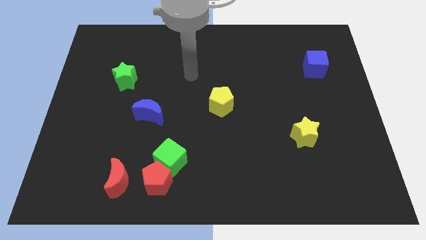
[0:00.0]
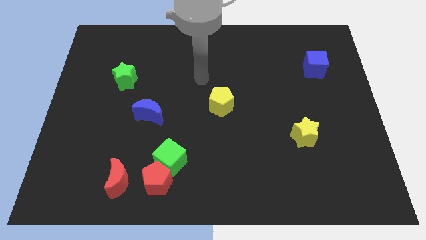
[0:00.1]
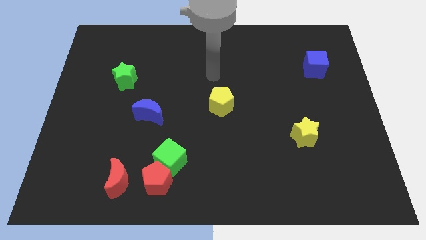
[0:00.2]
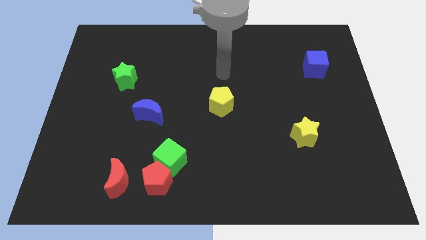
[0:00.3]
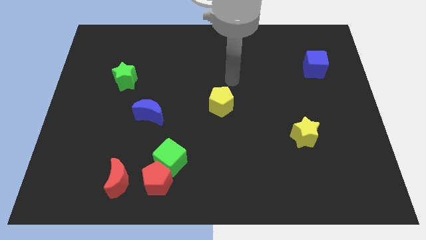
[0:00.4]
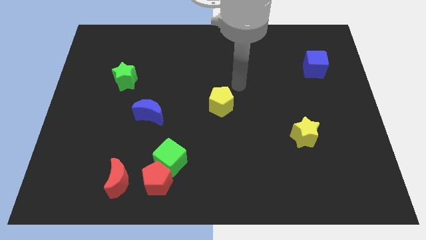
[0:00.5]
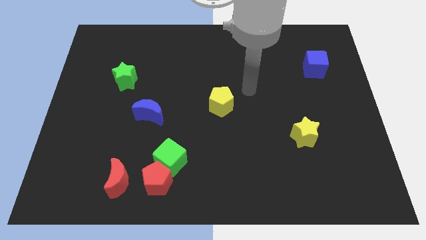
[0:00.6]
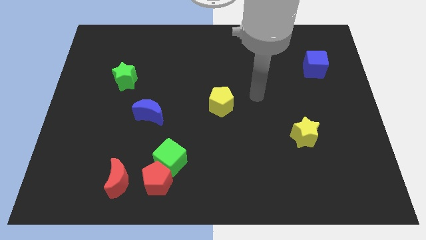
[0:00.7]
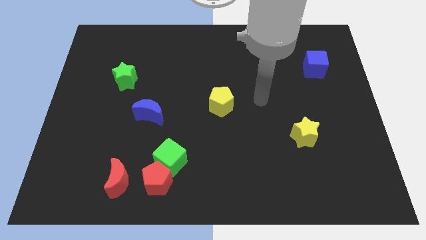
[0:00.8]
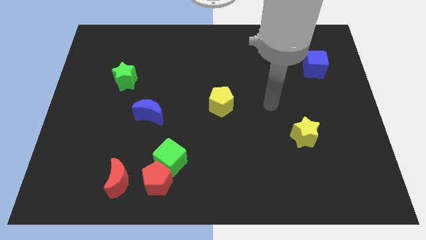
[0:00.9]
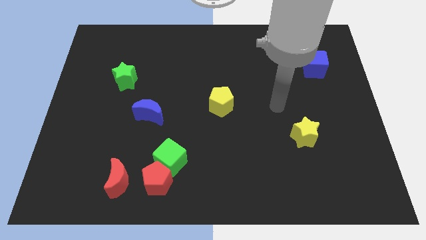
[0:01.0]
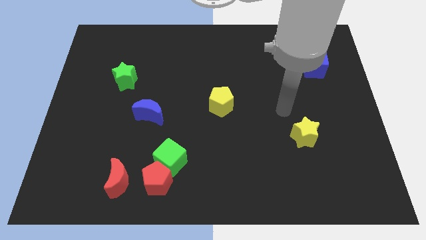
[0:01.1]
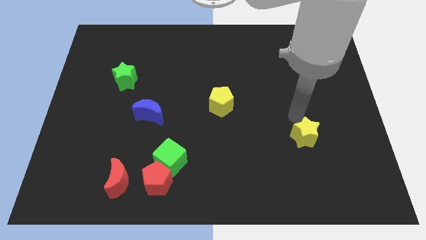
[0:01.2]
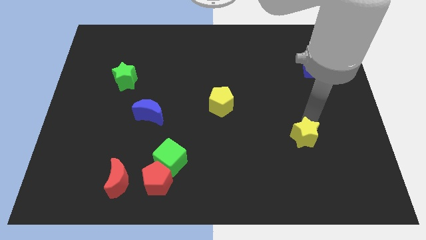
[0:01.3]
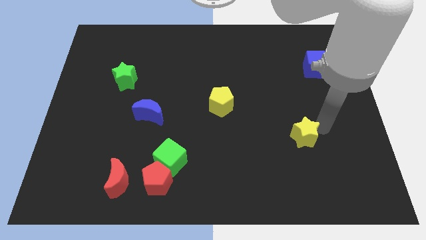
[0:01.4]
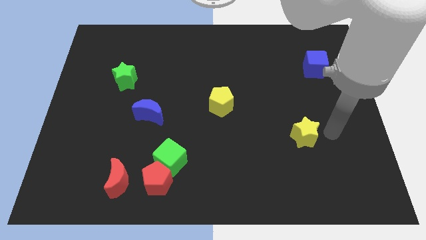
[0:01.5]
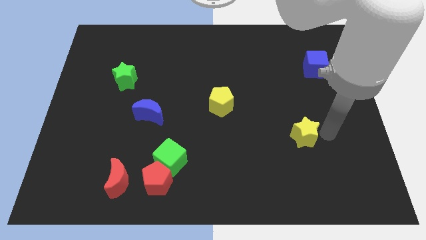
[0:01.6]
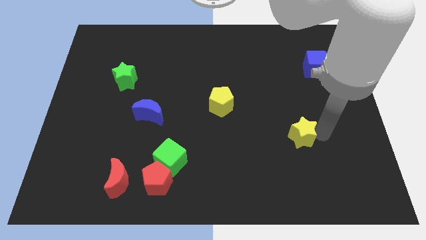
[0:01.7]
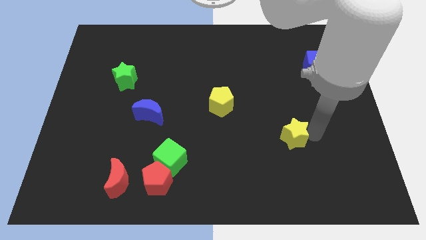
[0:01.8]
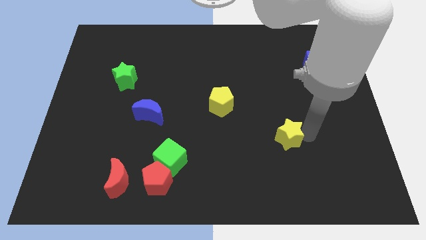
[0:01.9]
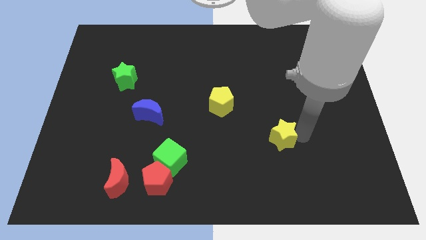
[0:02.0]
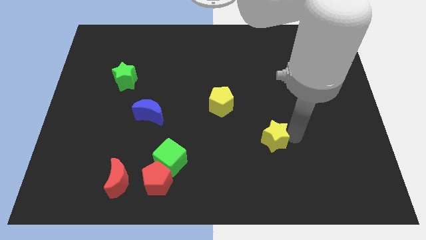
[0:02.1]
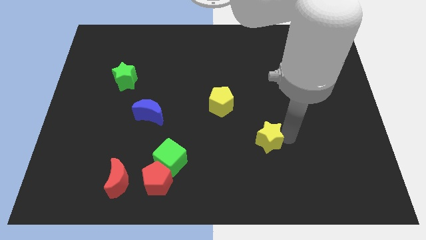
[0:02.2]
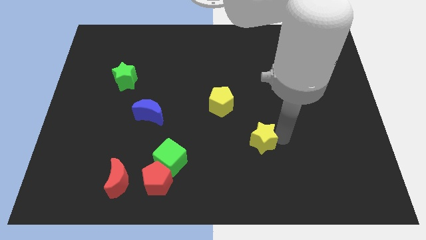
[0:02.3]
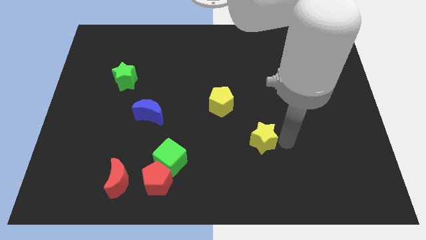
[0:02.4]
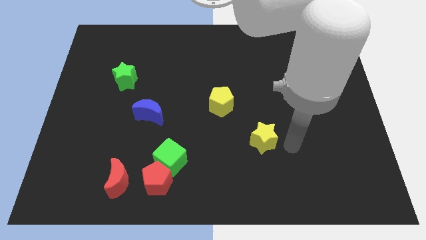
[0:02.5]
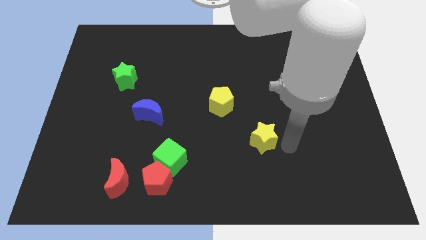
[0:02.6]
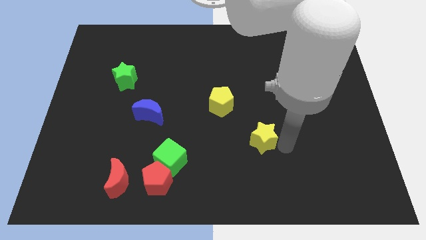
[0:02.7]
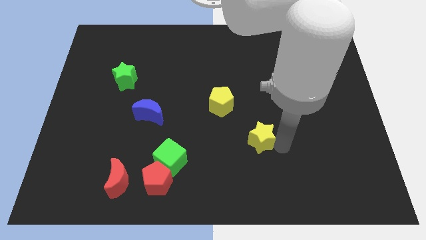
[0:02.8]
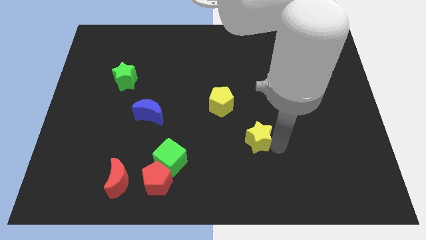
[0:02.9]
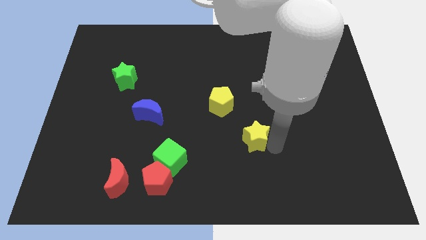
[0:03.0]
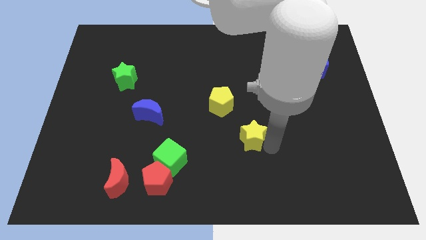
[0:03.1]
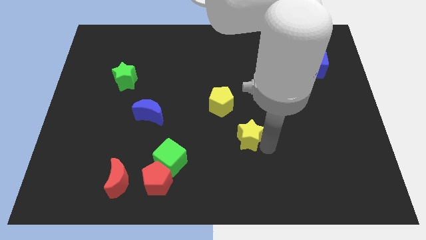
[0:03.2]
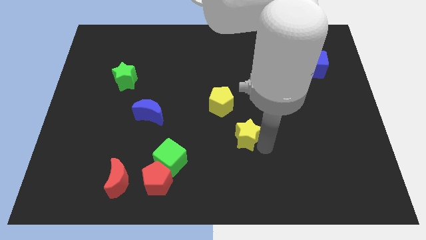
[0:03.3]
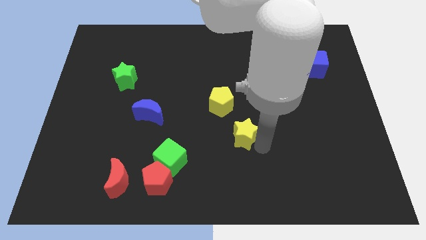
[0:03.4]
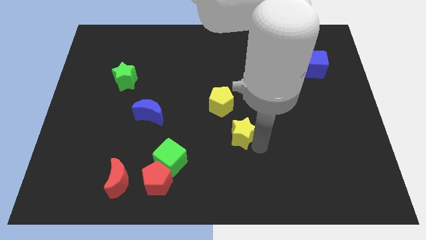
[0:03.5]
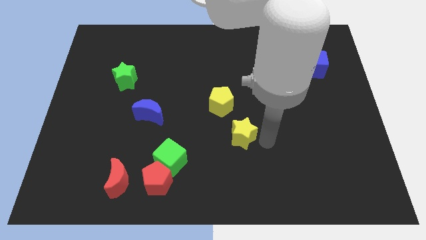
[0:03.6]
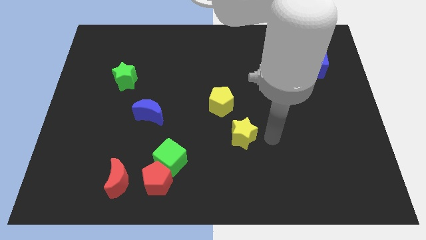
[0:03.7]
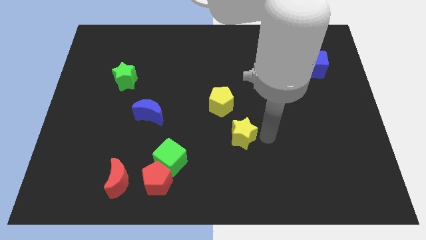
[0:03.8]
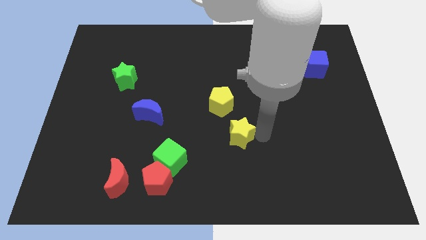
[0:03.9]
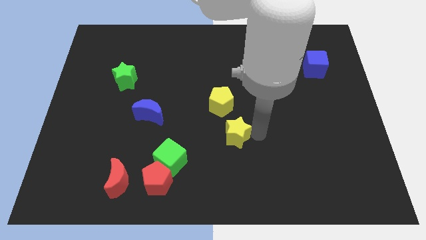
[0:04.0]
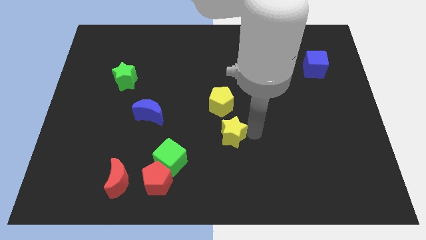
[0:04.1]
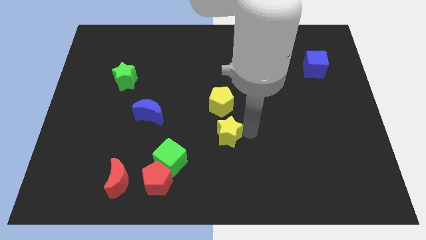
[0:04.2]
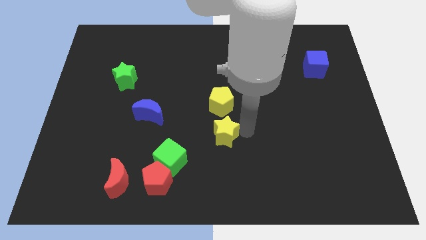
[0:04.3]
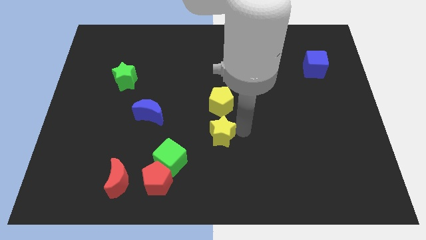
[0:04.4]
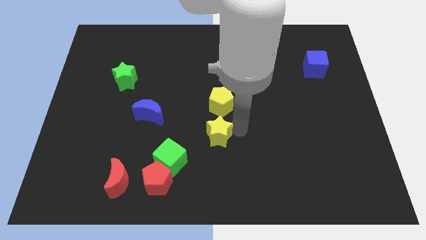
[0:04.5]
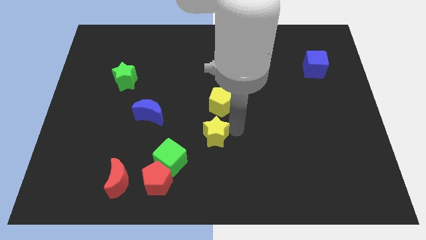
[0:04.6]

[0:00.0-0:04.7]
push the yellow star left

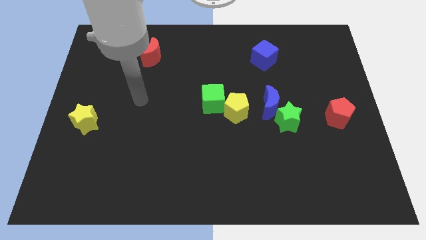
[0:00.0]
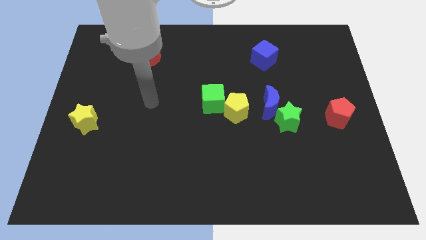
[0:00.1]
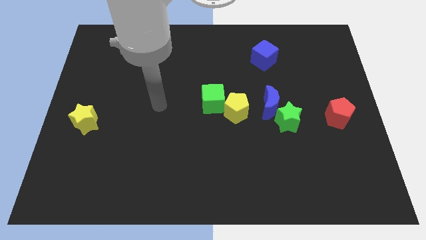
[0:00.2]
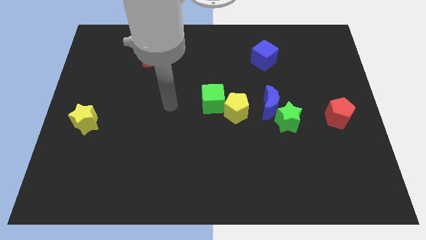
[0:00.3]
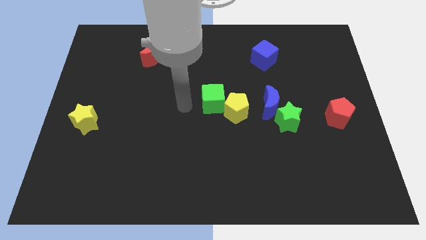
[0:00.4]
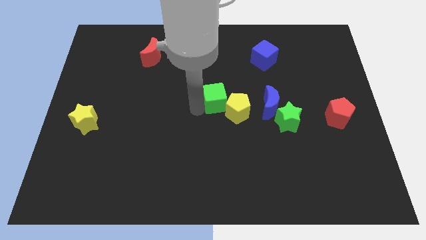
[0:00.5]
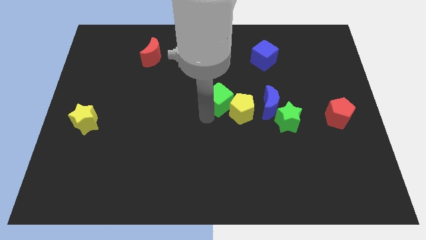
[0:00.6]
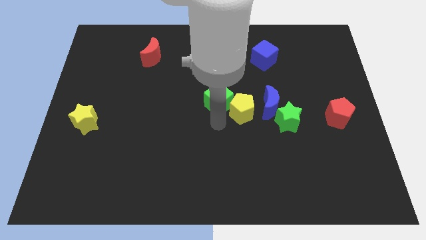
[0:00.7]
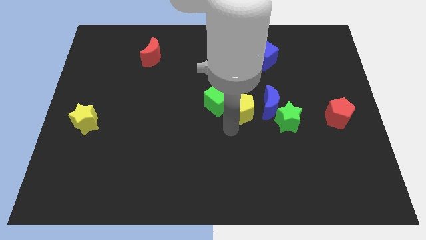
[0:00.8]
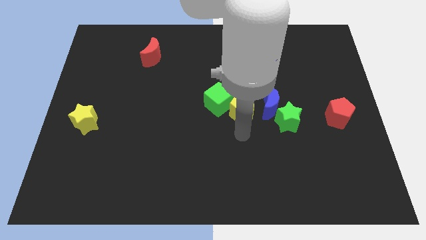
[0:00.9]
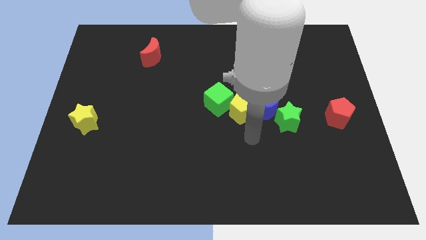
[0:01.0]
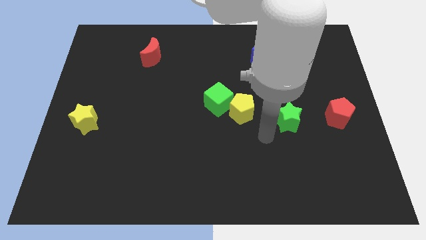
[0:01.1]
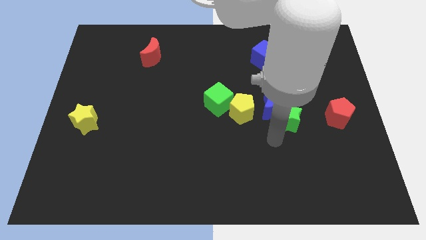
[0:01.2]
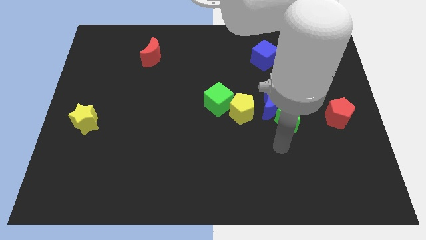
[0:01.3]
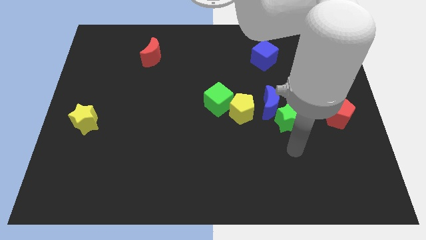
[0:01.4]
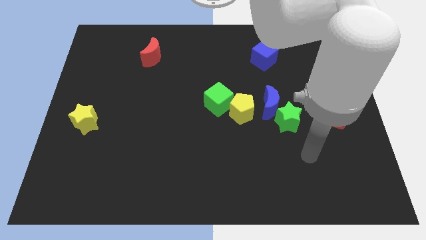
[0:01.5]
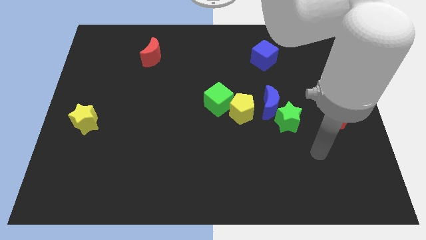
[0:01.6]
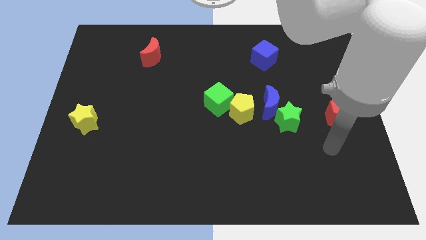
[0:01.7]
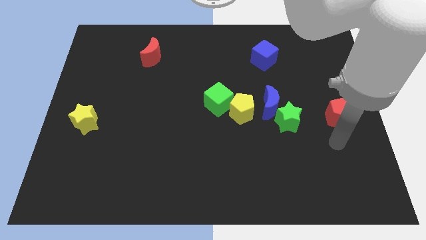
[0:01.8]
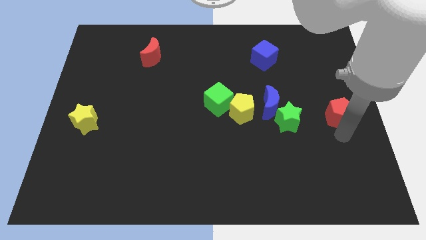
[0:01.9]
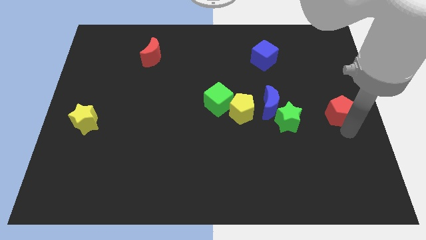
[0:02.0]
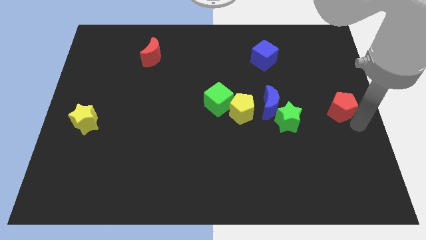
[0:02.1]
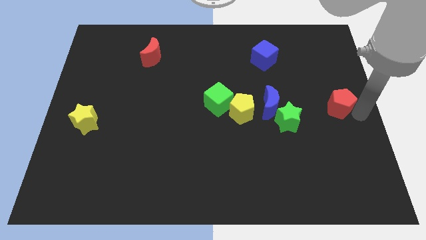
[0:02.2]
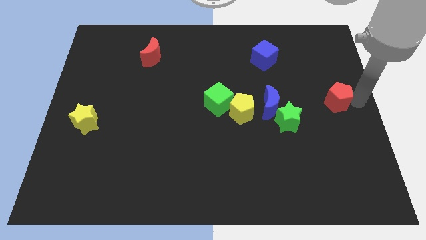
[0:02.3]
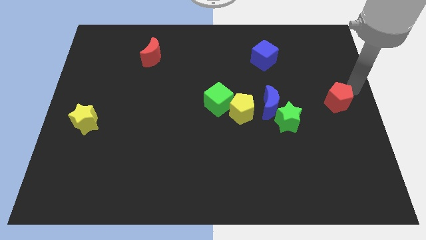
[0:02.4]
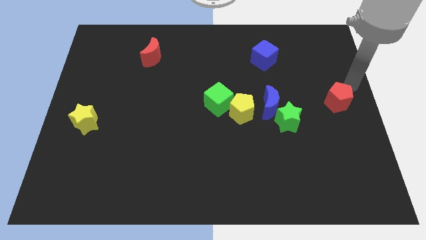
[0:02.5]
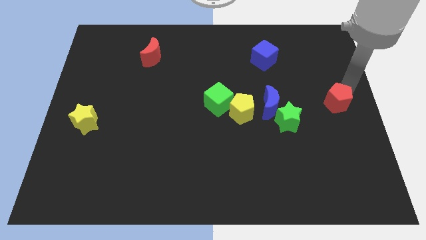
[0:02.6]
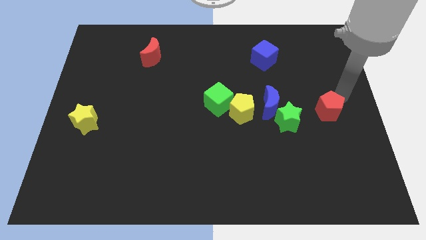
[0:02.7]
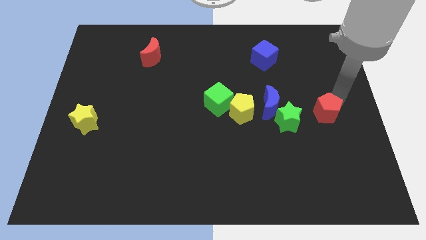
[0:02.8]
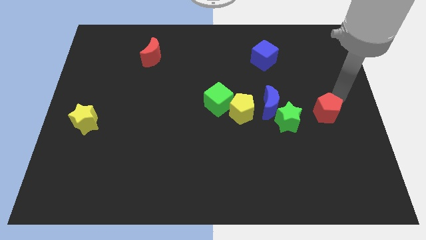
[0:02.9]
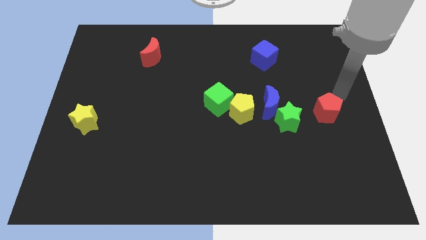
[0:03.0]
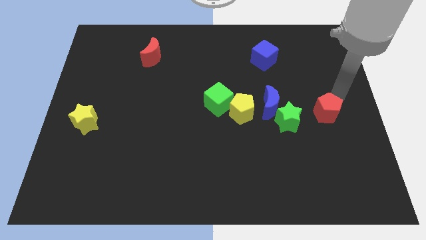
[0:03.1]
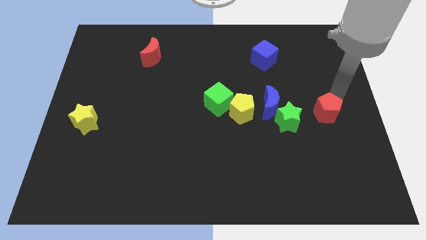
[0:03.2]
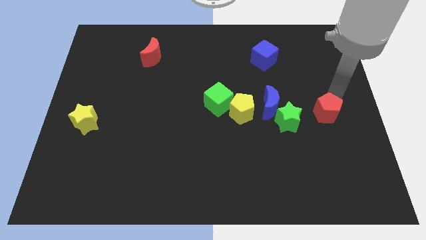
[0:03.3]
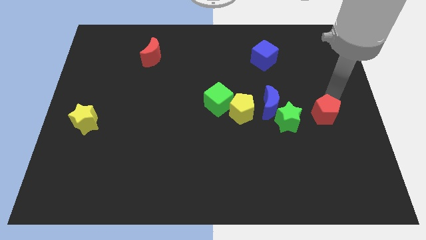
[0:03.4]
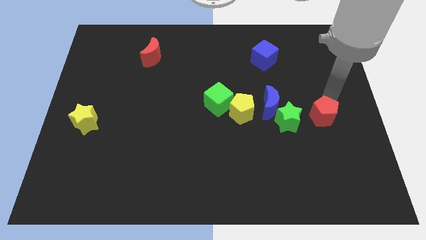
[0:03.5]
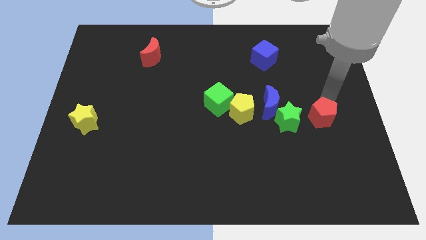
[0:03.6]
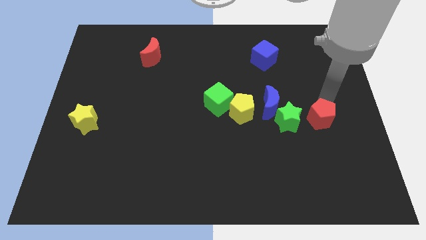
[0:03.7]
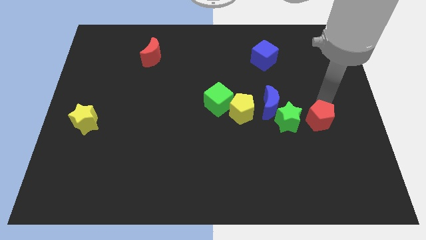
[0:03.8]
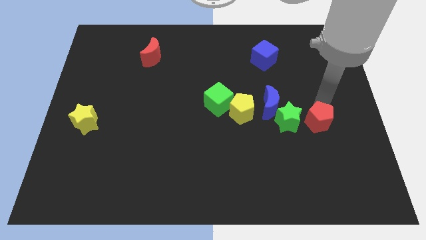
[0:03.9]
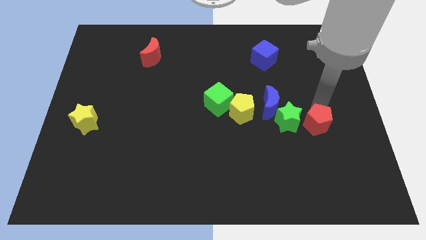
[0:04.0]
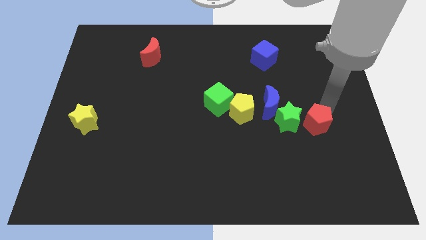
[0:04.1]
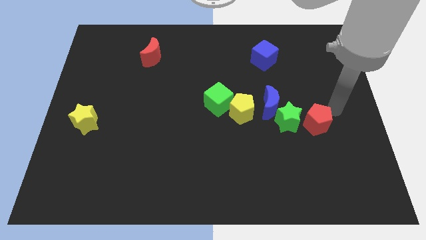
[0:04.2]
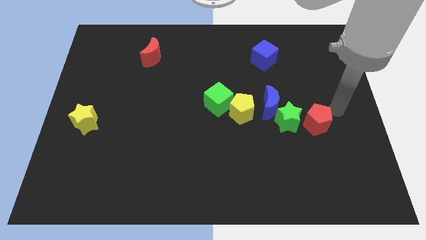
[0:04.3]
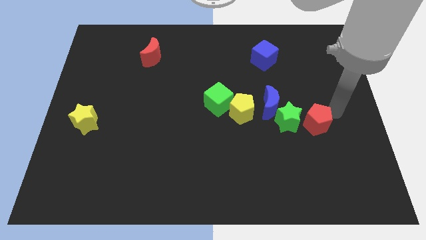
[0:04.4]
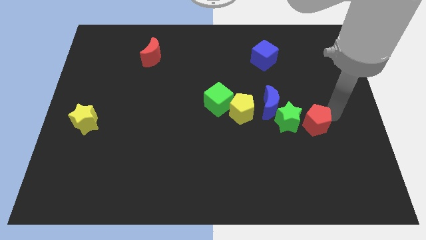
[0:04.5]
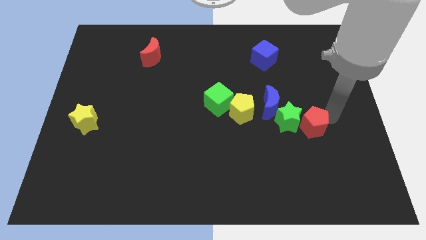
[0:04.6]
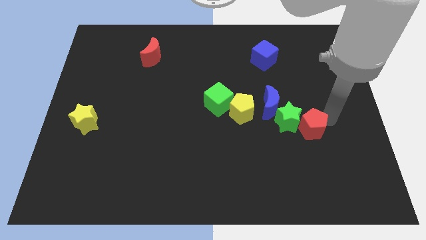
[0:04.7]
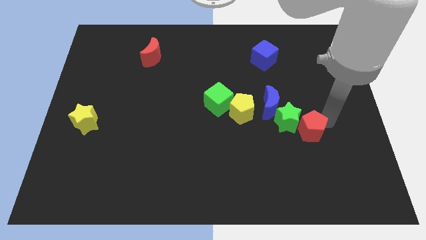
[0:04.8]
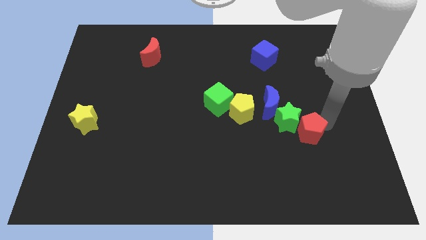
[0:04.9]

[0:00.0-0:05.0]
move the red pentagon a little left
